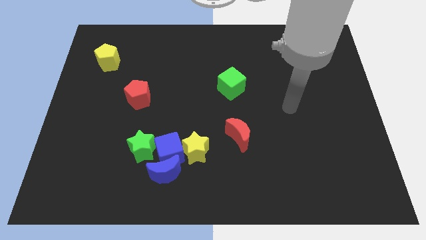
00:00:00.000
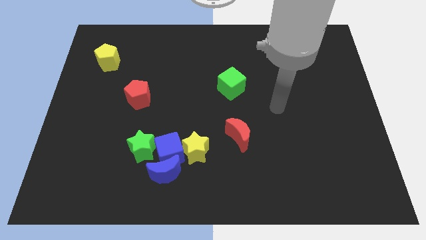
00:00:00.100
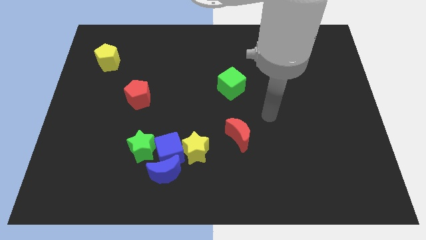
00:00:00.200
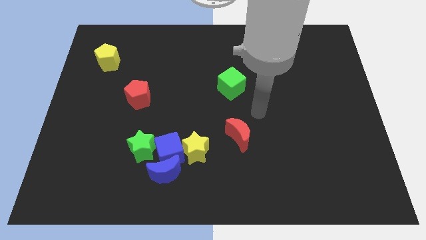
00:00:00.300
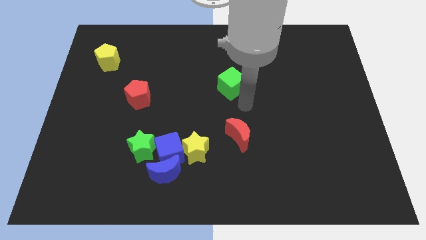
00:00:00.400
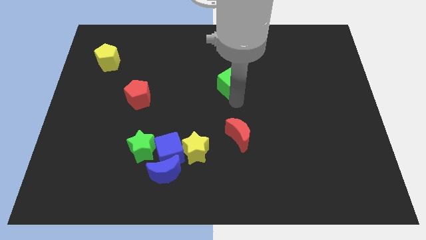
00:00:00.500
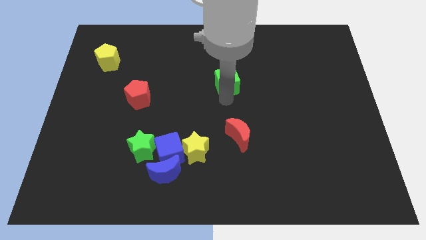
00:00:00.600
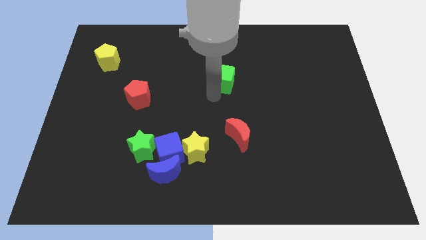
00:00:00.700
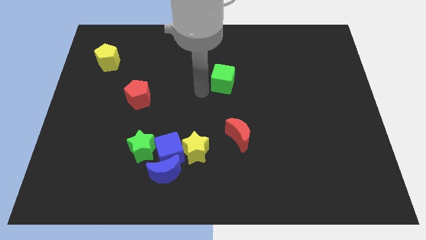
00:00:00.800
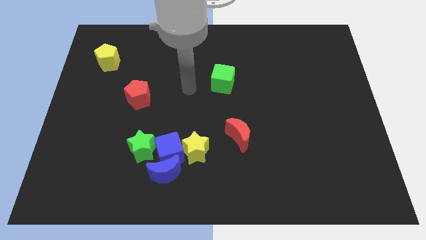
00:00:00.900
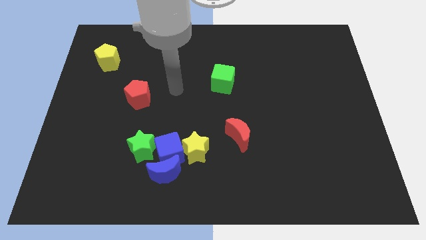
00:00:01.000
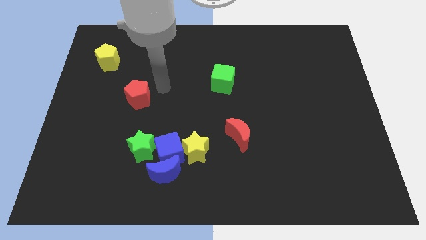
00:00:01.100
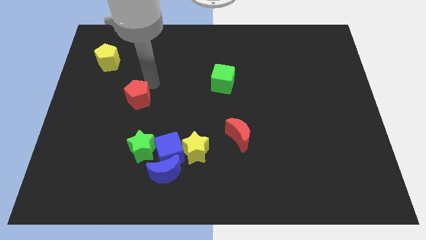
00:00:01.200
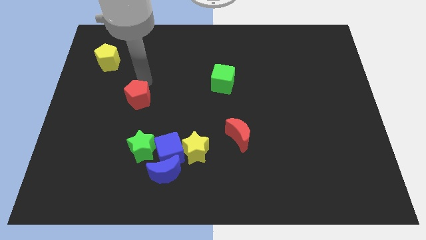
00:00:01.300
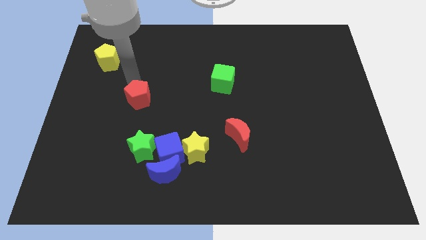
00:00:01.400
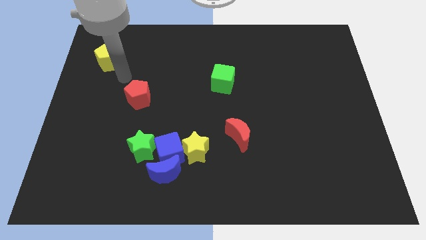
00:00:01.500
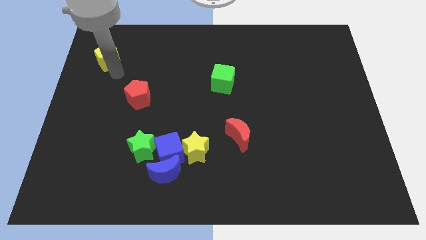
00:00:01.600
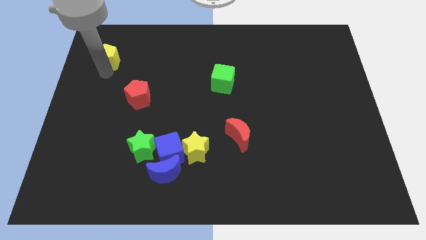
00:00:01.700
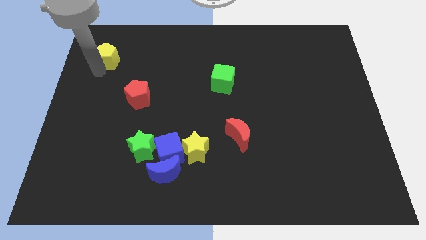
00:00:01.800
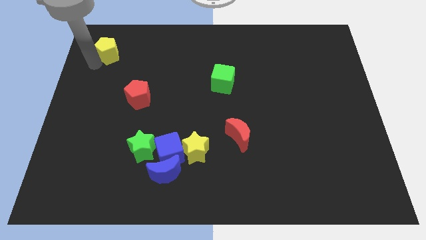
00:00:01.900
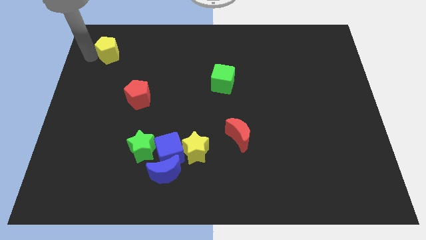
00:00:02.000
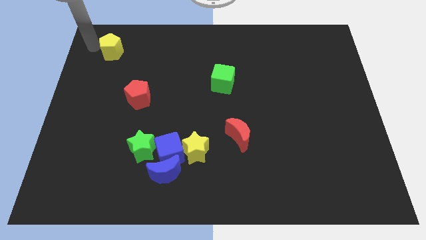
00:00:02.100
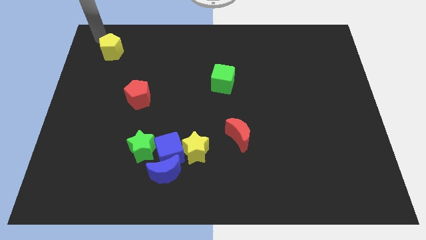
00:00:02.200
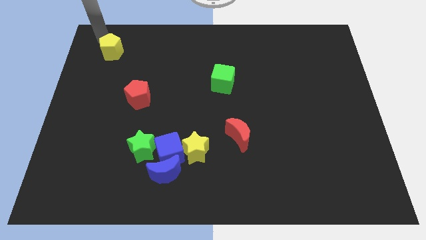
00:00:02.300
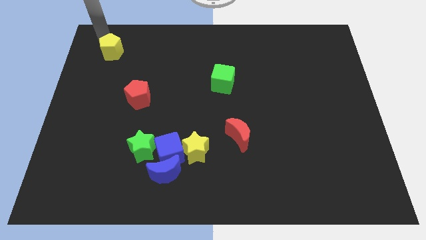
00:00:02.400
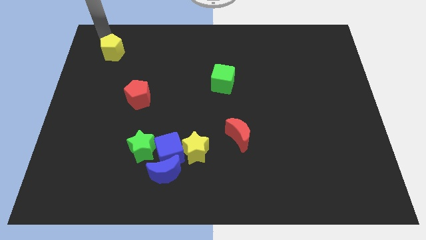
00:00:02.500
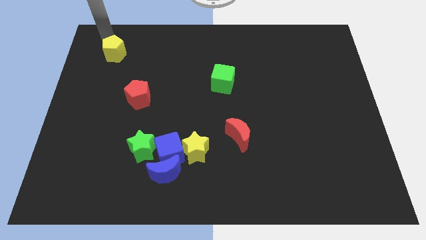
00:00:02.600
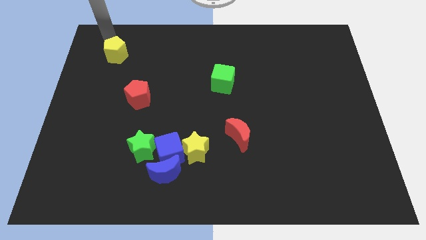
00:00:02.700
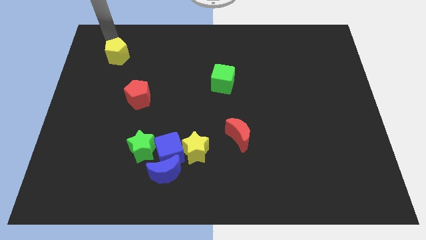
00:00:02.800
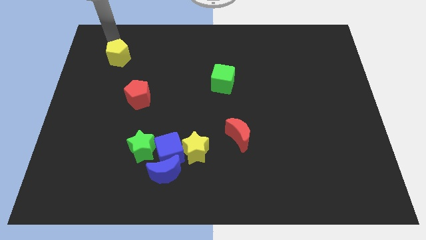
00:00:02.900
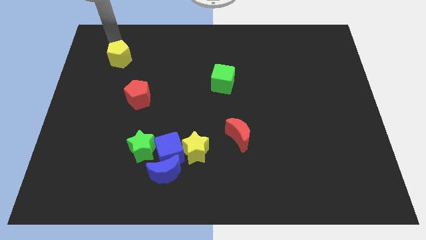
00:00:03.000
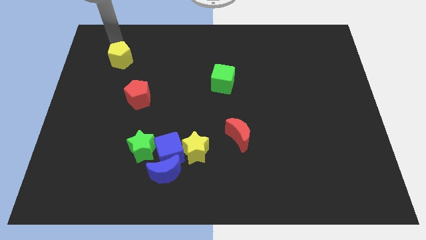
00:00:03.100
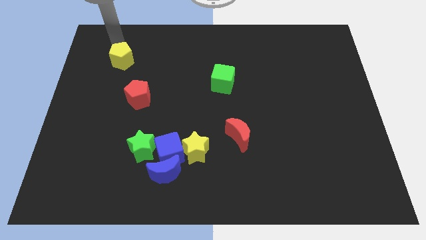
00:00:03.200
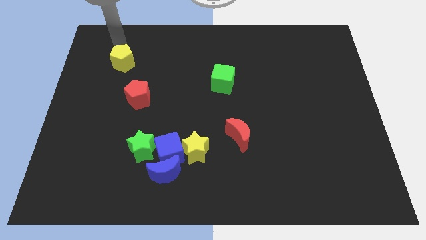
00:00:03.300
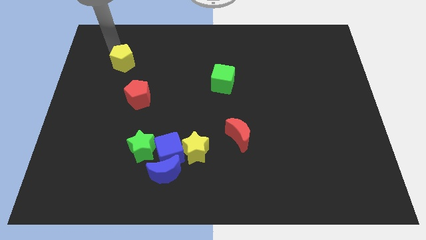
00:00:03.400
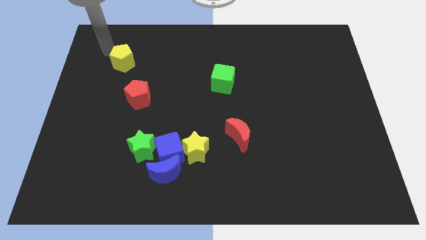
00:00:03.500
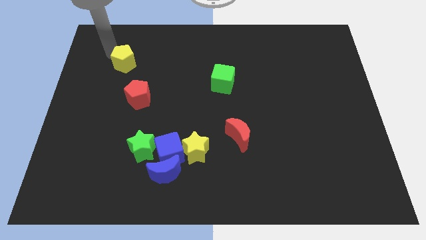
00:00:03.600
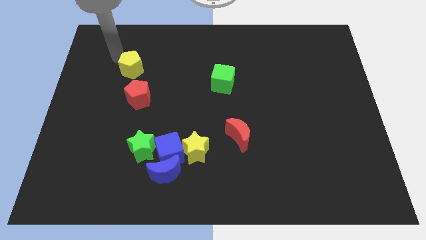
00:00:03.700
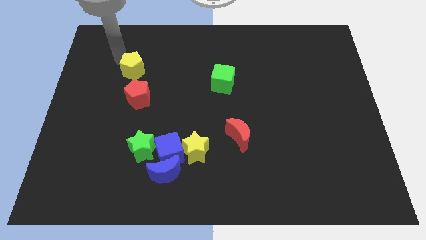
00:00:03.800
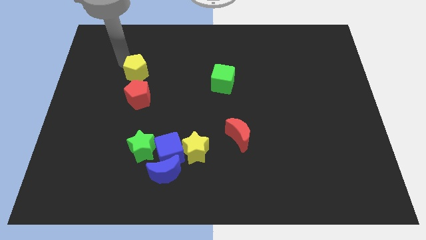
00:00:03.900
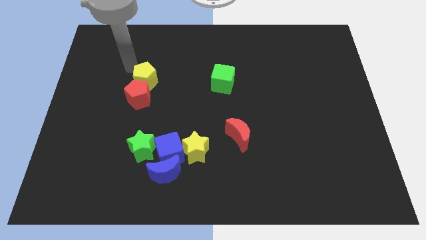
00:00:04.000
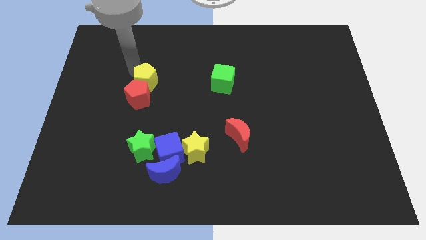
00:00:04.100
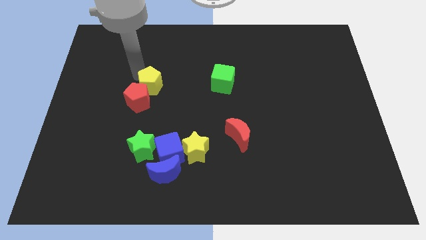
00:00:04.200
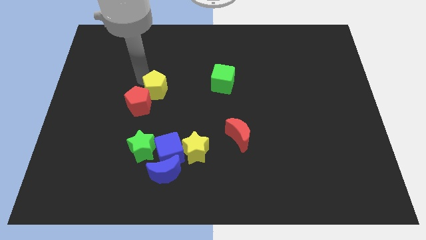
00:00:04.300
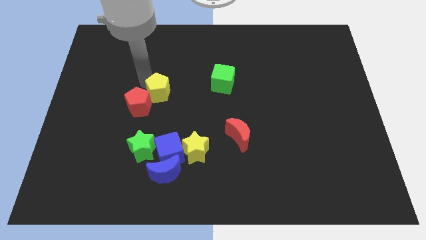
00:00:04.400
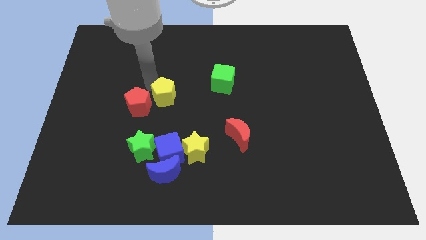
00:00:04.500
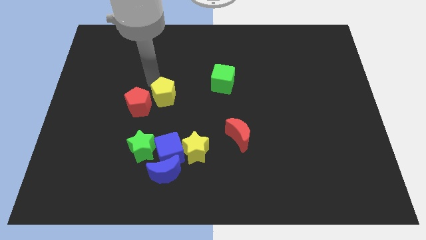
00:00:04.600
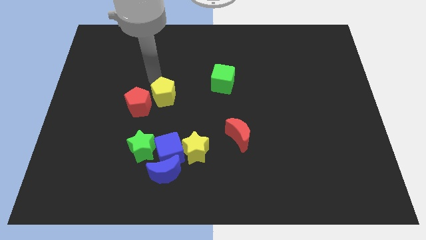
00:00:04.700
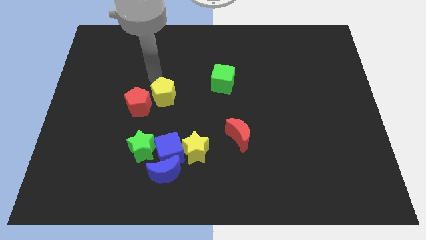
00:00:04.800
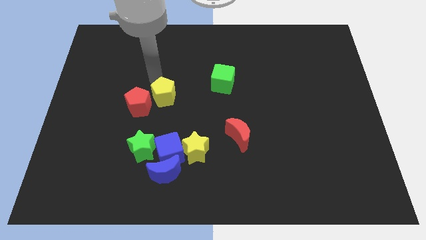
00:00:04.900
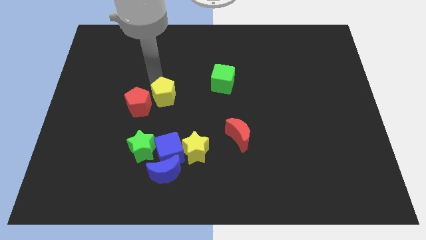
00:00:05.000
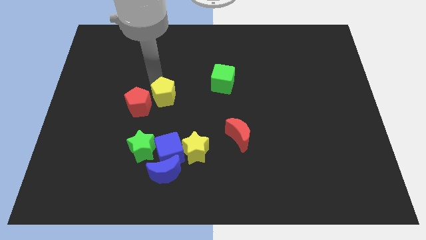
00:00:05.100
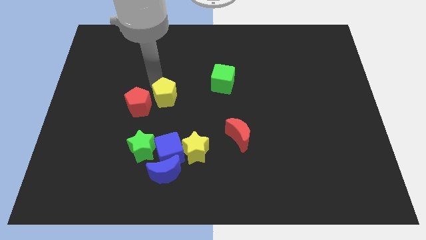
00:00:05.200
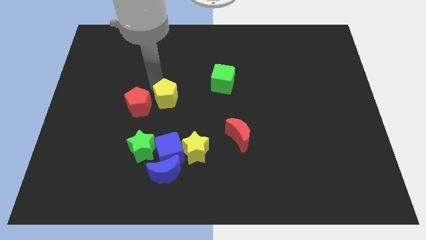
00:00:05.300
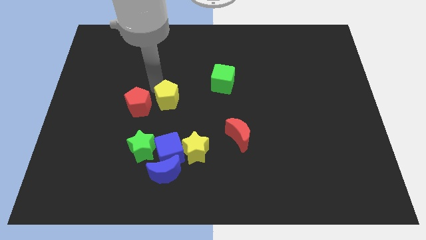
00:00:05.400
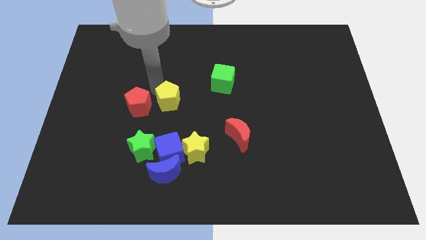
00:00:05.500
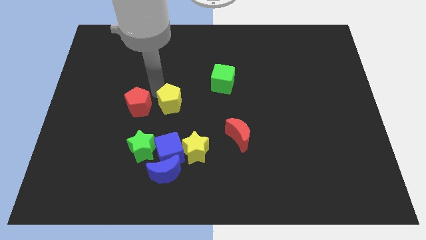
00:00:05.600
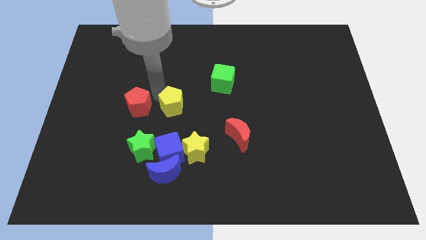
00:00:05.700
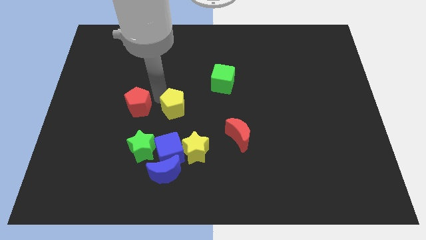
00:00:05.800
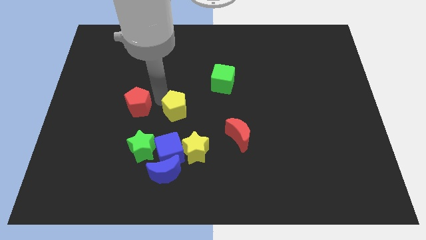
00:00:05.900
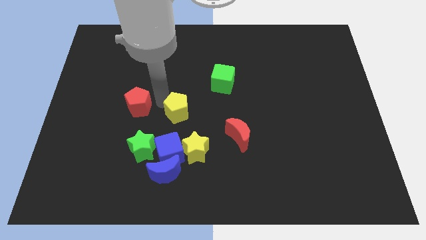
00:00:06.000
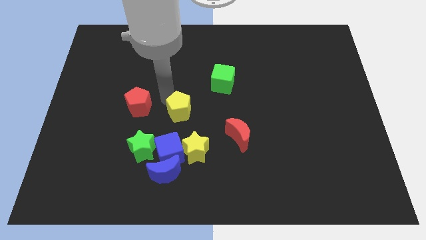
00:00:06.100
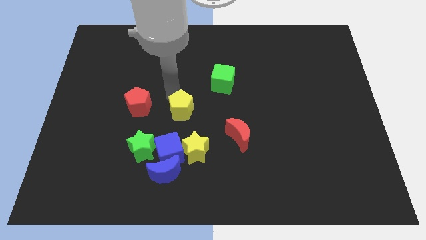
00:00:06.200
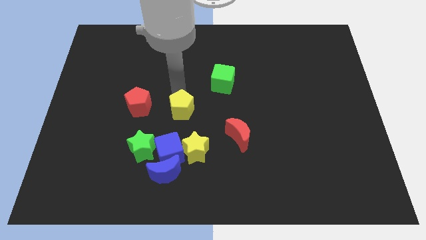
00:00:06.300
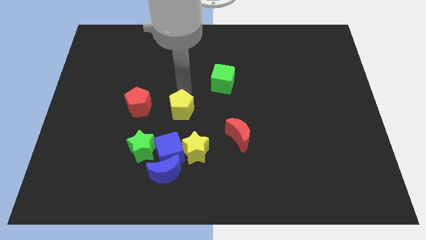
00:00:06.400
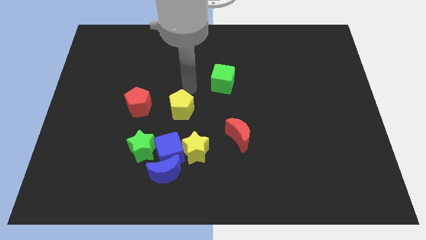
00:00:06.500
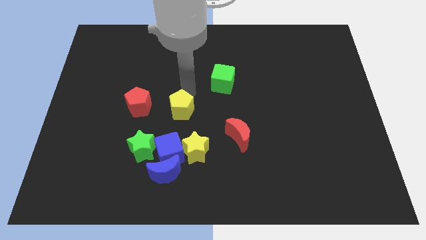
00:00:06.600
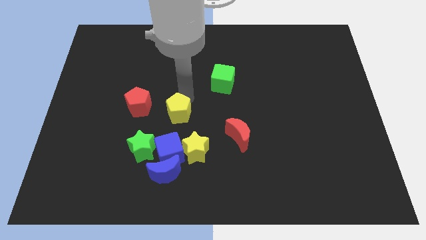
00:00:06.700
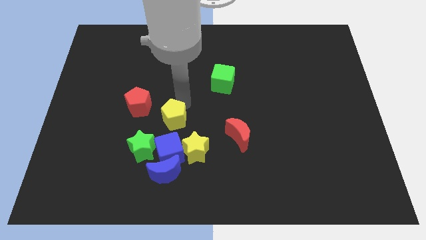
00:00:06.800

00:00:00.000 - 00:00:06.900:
push the yellow pentagon to the top left of the yellow star
